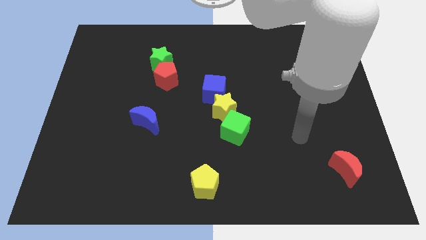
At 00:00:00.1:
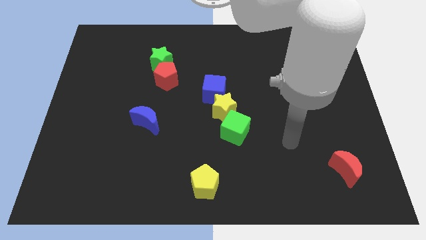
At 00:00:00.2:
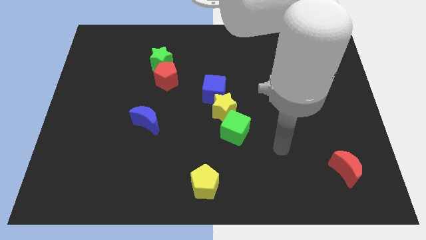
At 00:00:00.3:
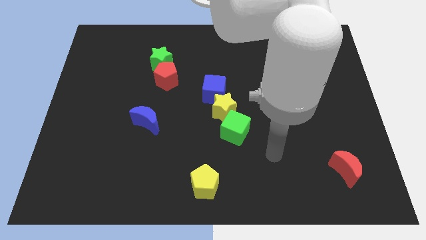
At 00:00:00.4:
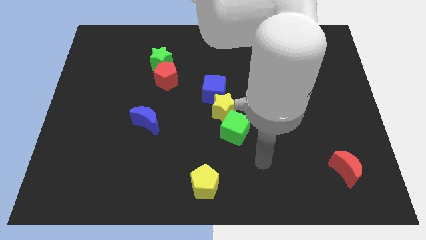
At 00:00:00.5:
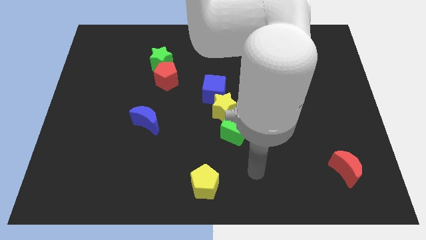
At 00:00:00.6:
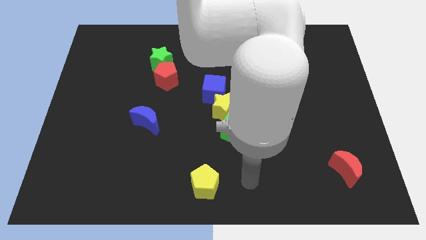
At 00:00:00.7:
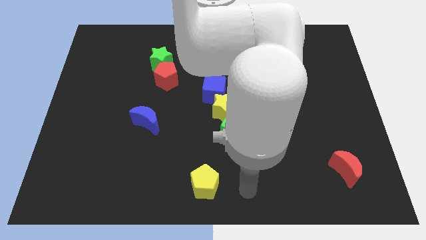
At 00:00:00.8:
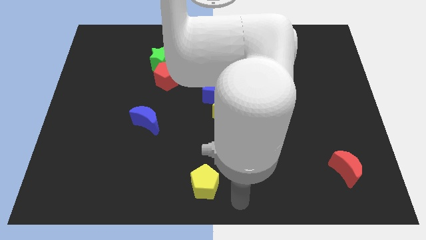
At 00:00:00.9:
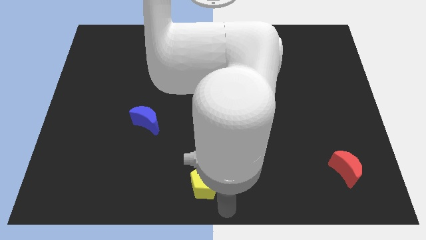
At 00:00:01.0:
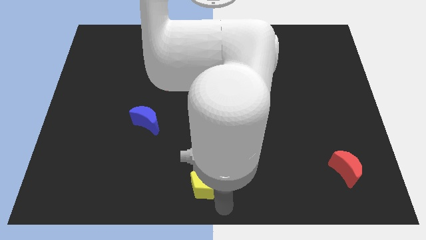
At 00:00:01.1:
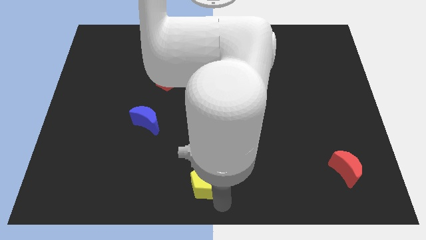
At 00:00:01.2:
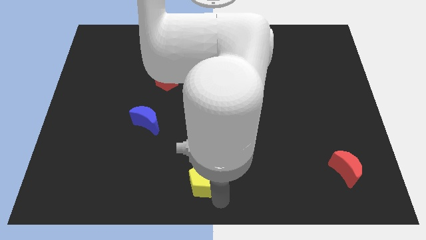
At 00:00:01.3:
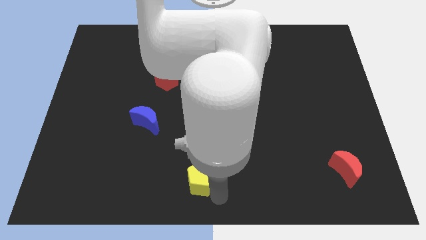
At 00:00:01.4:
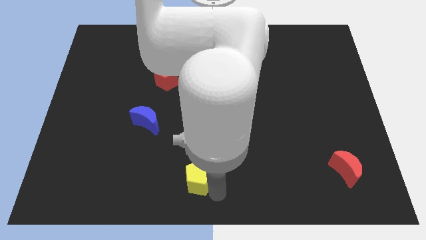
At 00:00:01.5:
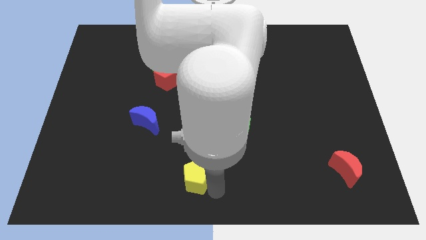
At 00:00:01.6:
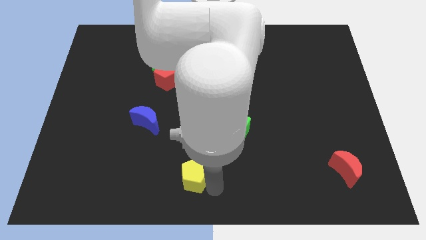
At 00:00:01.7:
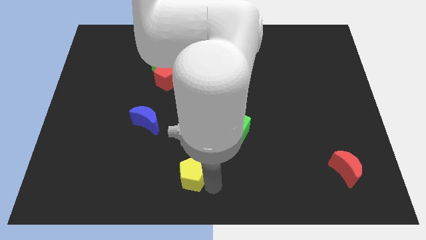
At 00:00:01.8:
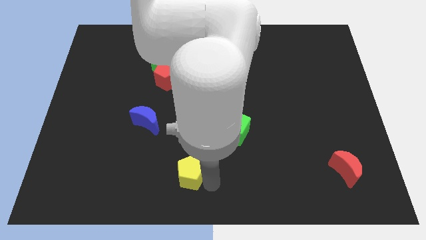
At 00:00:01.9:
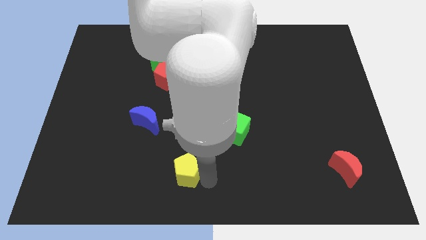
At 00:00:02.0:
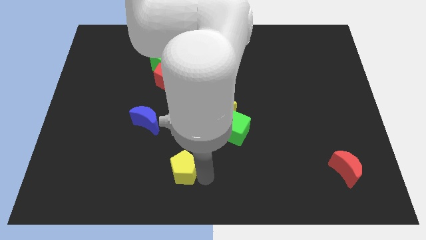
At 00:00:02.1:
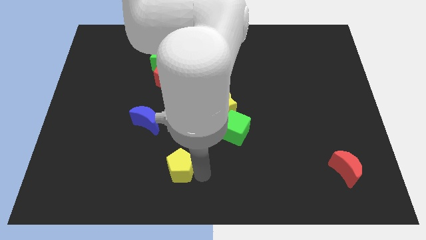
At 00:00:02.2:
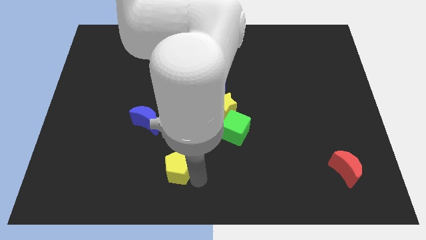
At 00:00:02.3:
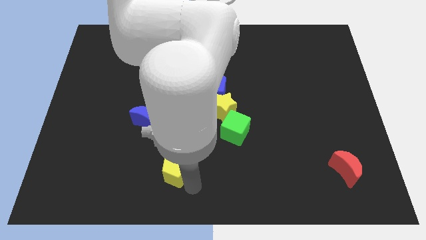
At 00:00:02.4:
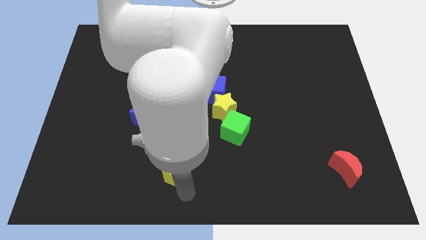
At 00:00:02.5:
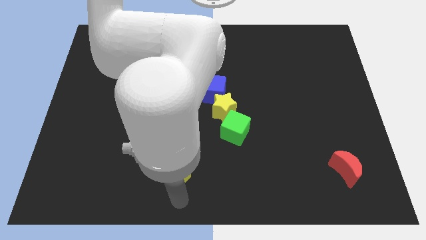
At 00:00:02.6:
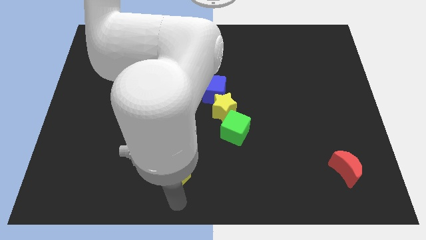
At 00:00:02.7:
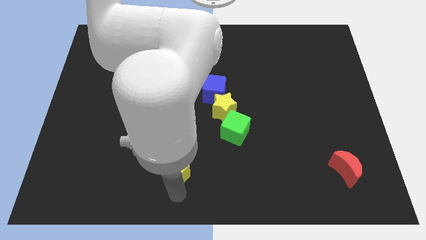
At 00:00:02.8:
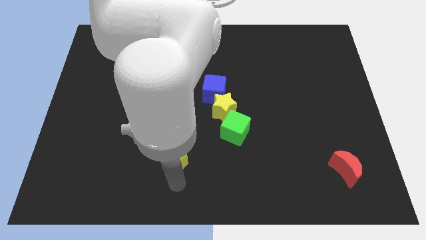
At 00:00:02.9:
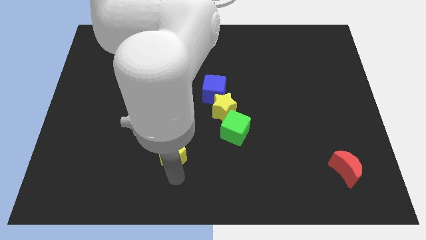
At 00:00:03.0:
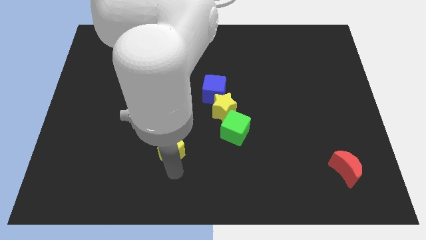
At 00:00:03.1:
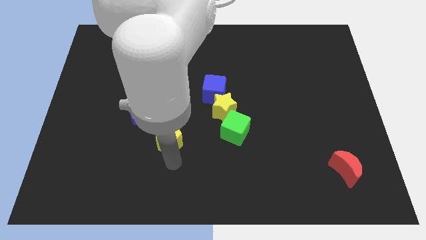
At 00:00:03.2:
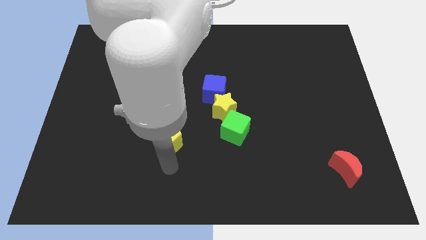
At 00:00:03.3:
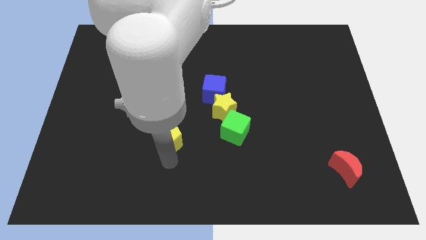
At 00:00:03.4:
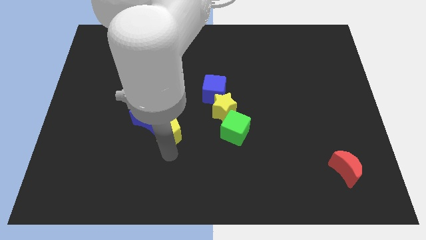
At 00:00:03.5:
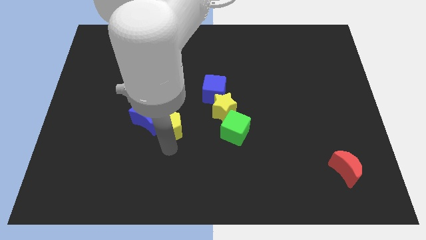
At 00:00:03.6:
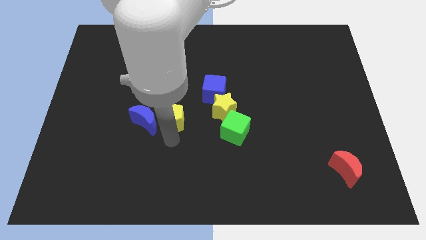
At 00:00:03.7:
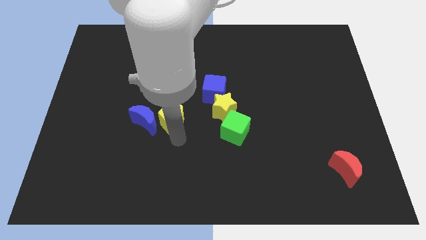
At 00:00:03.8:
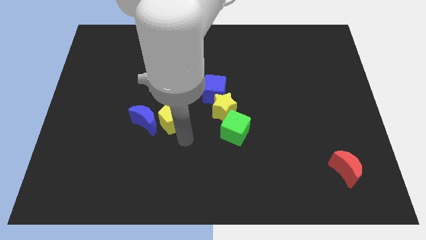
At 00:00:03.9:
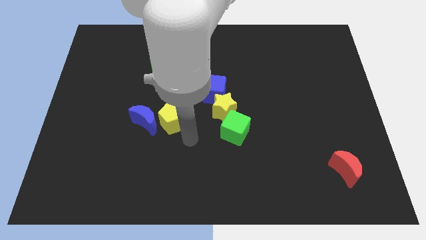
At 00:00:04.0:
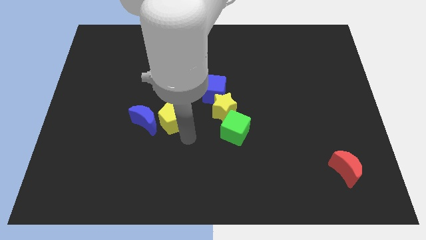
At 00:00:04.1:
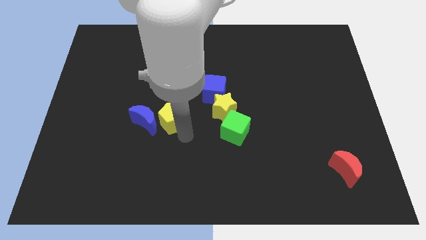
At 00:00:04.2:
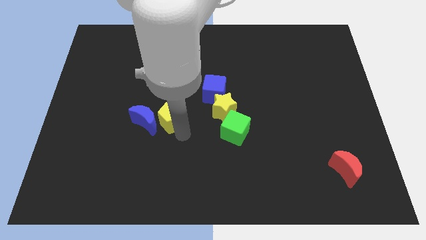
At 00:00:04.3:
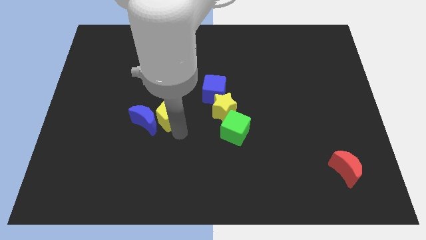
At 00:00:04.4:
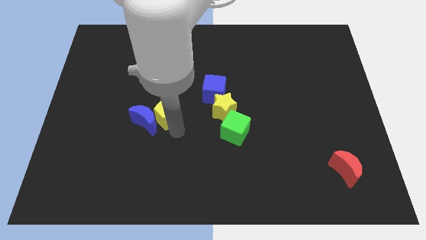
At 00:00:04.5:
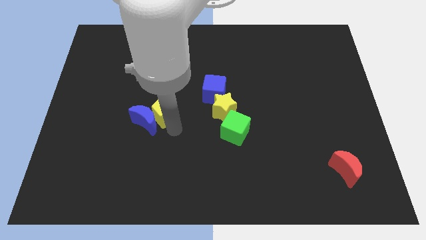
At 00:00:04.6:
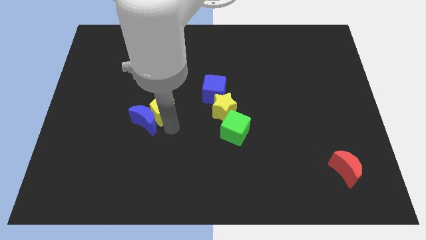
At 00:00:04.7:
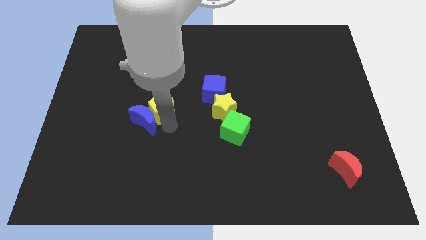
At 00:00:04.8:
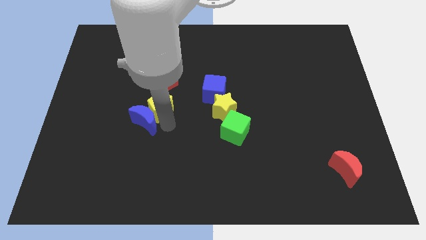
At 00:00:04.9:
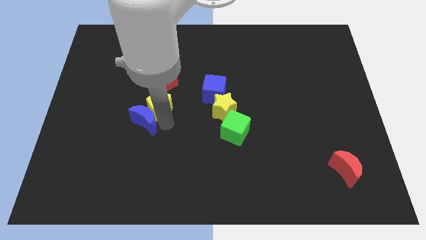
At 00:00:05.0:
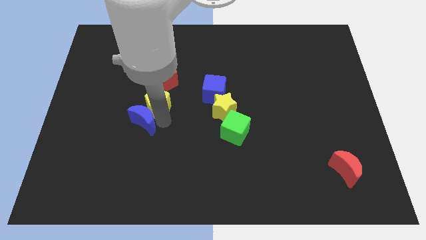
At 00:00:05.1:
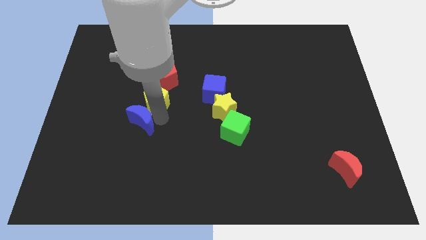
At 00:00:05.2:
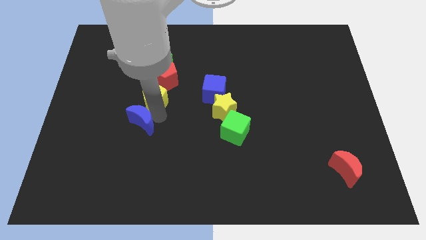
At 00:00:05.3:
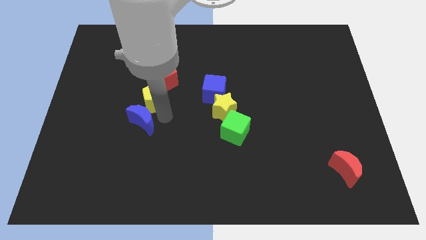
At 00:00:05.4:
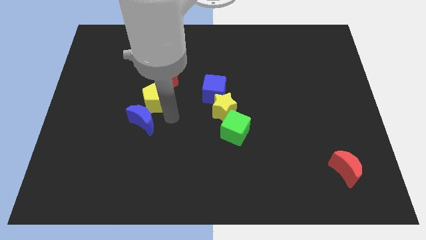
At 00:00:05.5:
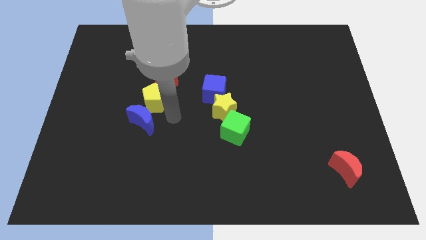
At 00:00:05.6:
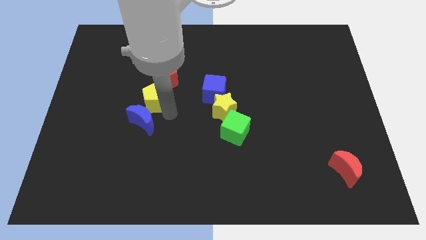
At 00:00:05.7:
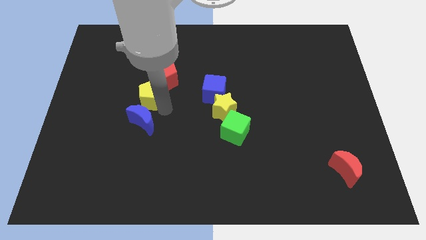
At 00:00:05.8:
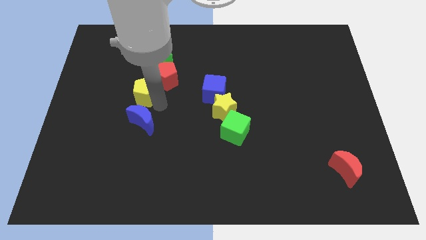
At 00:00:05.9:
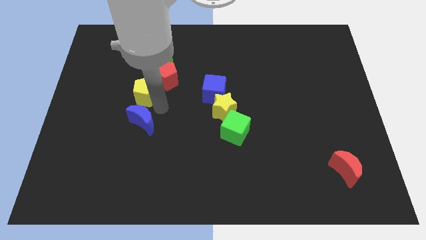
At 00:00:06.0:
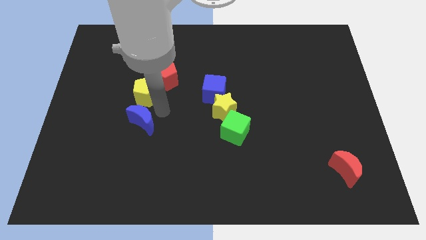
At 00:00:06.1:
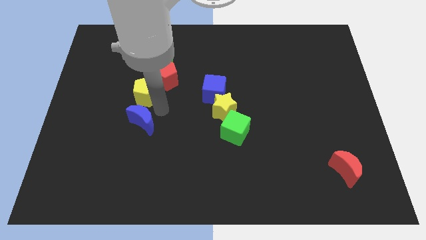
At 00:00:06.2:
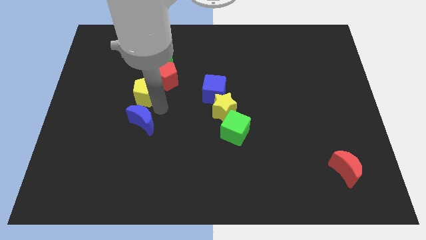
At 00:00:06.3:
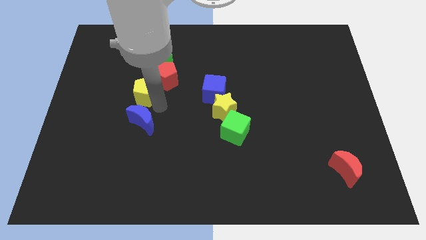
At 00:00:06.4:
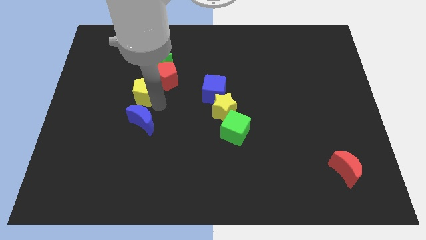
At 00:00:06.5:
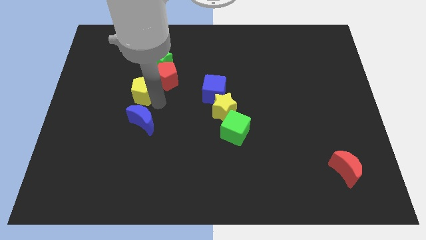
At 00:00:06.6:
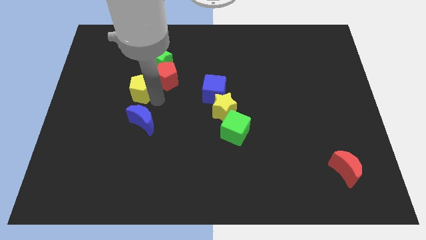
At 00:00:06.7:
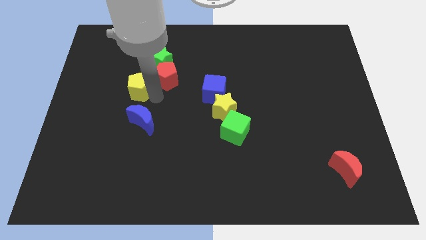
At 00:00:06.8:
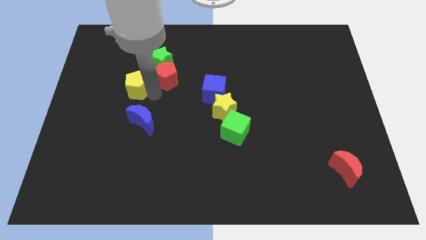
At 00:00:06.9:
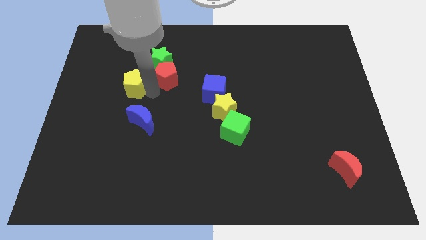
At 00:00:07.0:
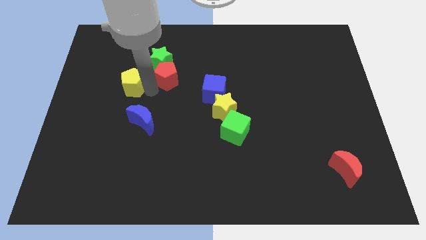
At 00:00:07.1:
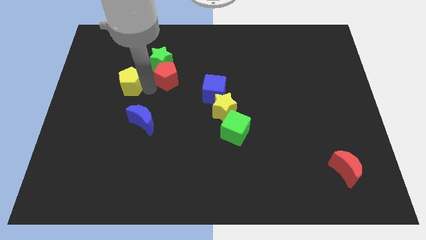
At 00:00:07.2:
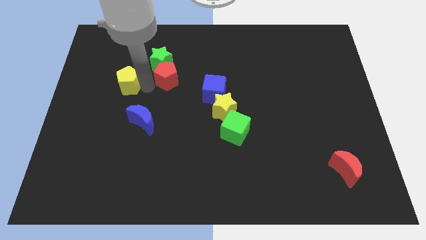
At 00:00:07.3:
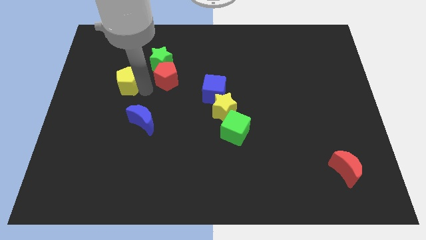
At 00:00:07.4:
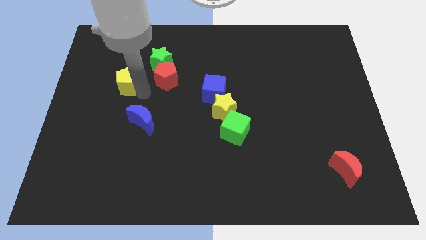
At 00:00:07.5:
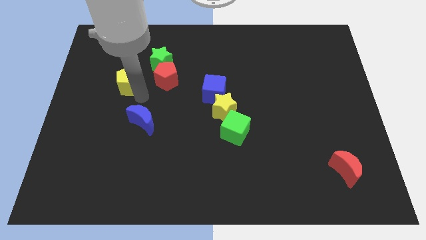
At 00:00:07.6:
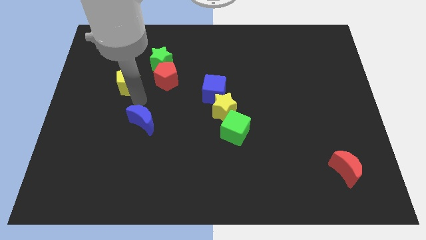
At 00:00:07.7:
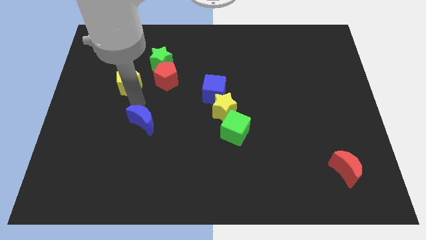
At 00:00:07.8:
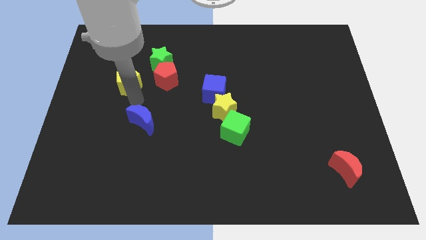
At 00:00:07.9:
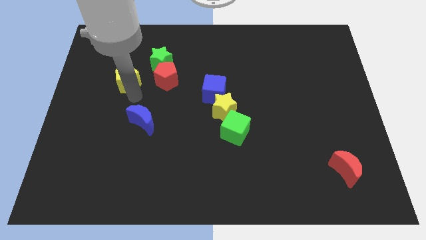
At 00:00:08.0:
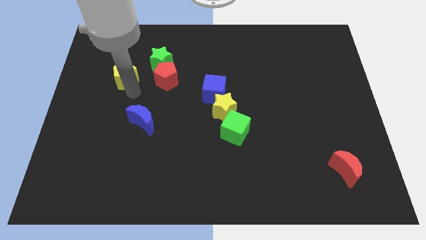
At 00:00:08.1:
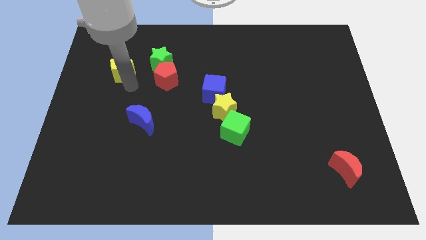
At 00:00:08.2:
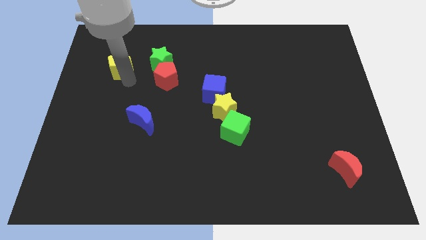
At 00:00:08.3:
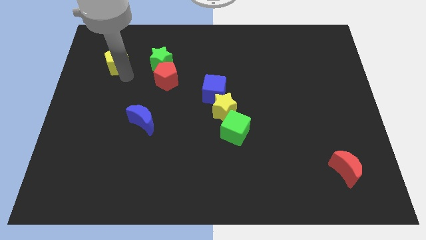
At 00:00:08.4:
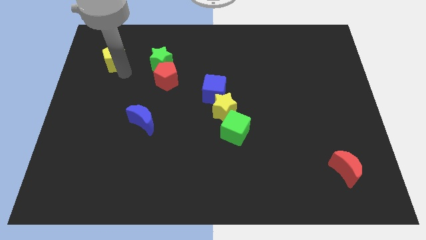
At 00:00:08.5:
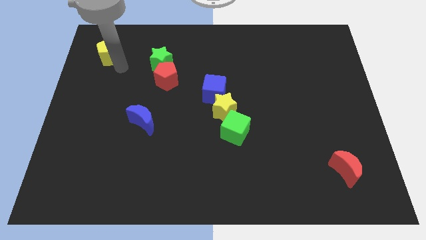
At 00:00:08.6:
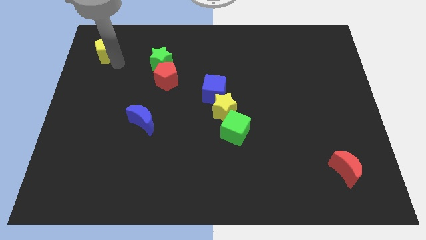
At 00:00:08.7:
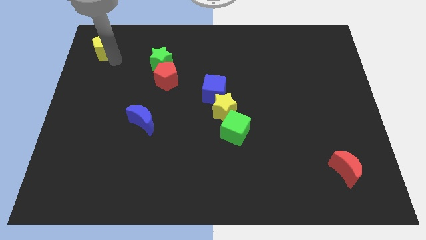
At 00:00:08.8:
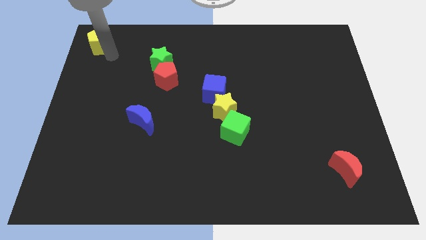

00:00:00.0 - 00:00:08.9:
move the yellow pentagon to the top left
